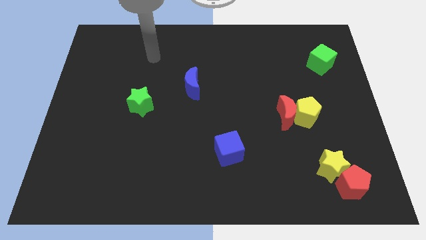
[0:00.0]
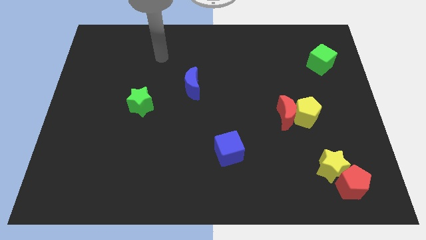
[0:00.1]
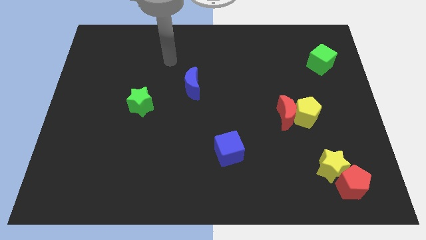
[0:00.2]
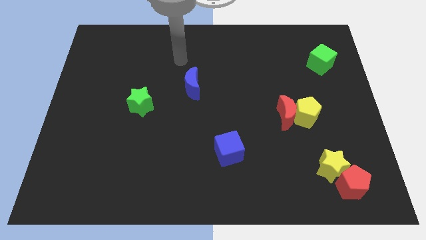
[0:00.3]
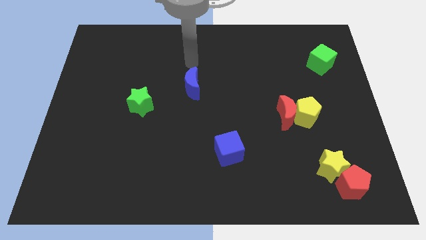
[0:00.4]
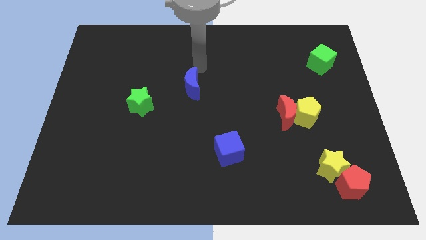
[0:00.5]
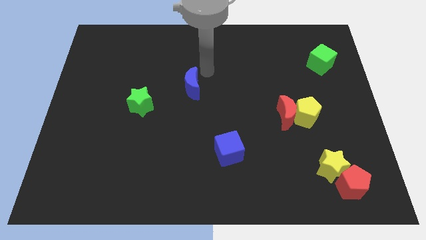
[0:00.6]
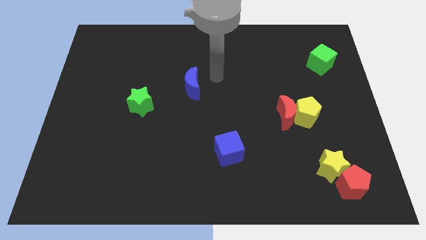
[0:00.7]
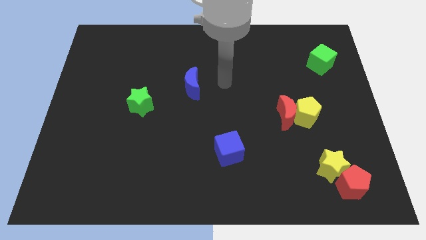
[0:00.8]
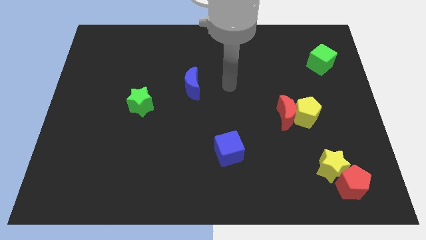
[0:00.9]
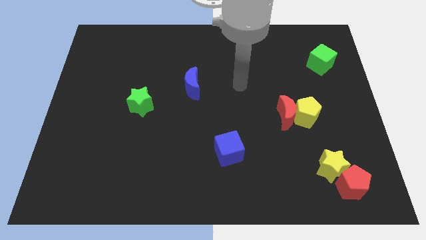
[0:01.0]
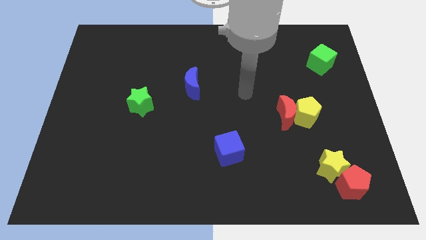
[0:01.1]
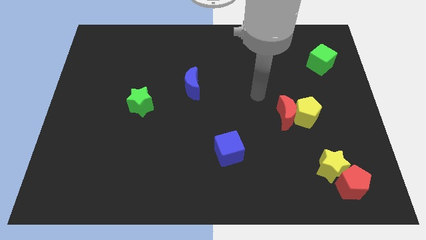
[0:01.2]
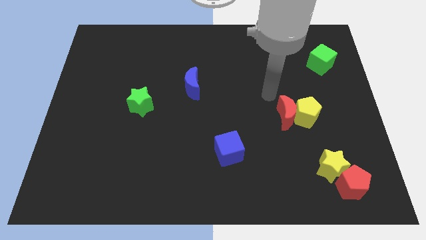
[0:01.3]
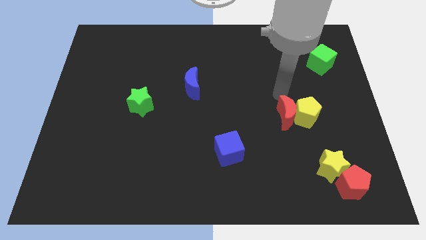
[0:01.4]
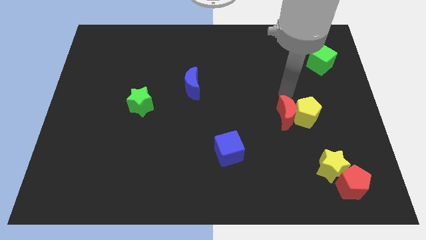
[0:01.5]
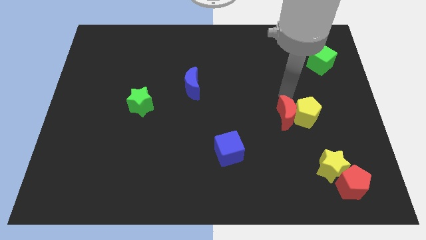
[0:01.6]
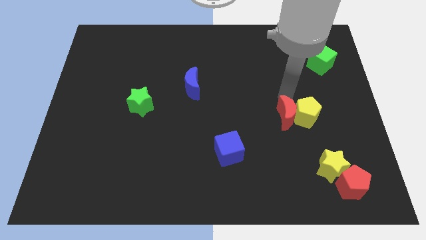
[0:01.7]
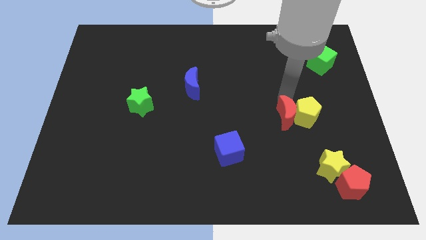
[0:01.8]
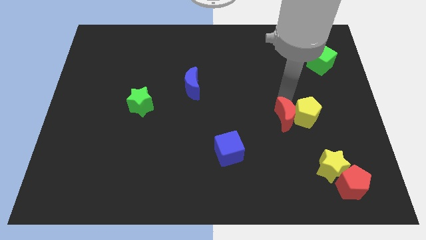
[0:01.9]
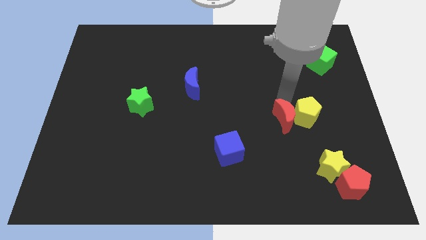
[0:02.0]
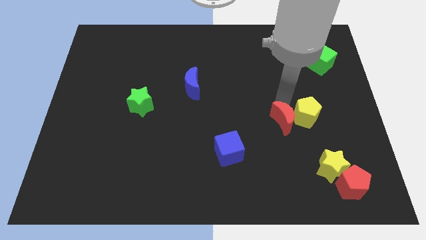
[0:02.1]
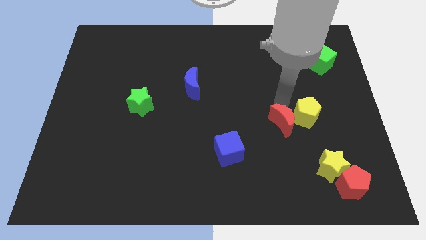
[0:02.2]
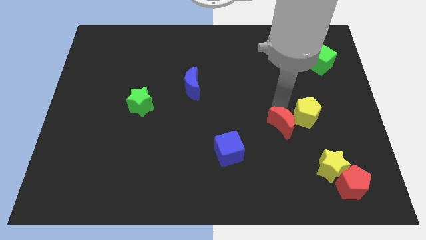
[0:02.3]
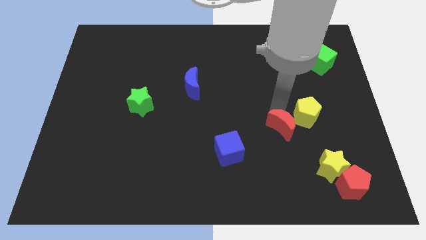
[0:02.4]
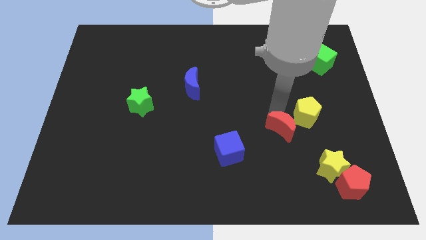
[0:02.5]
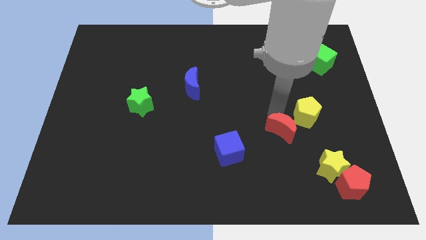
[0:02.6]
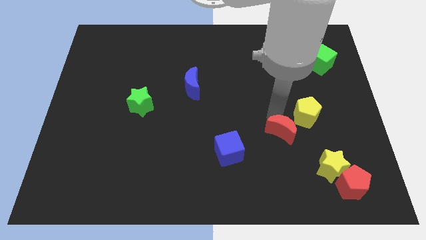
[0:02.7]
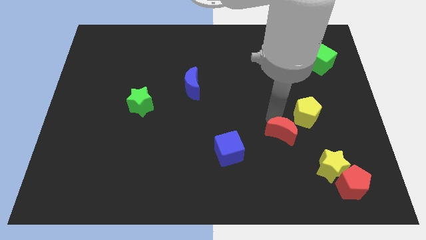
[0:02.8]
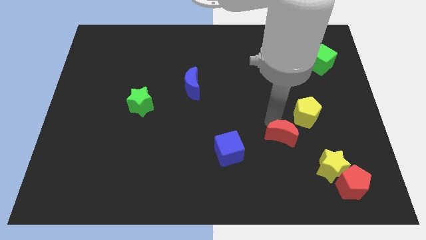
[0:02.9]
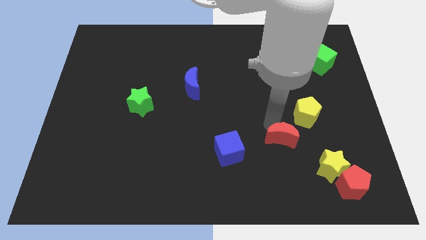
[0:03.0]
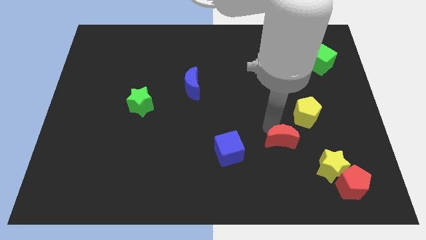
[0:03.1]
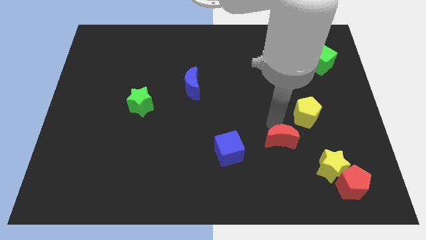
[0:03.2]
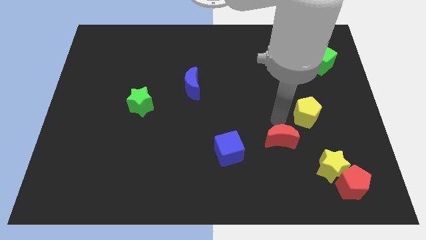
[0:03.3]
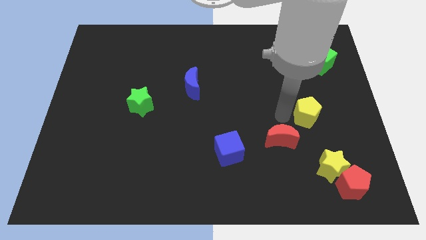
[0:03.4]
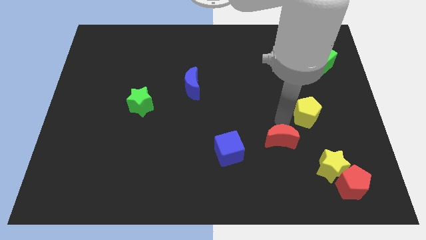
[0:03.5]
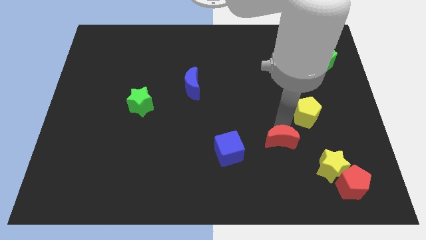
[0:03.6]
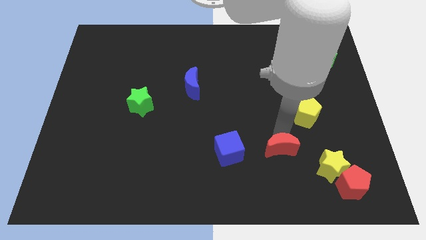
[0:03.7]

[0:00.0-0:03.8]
push the red moon downwards and left somewhat

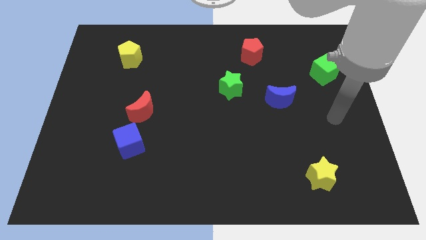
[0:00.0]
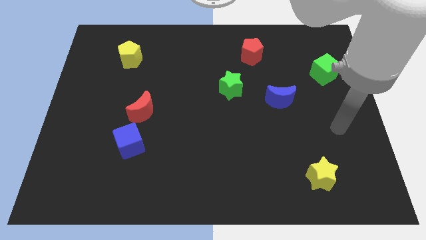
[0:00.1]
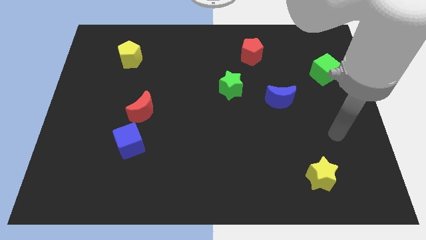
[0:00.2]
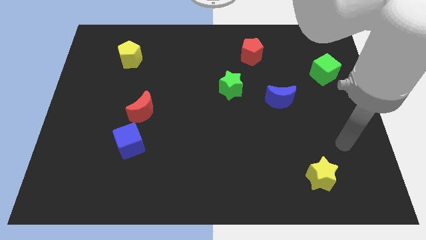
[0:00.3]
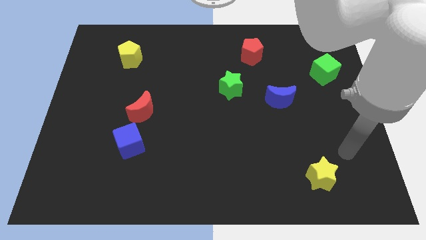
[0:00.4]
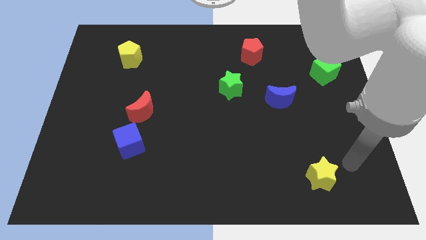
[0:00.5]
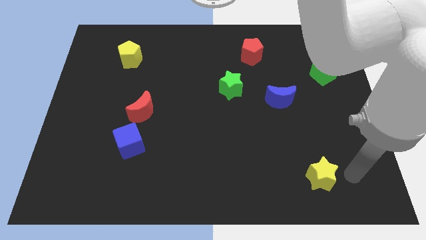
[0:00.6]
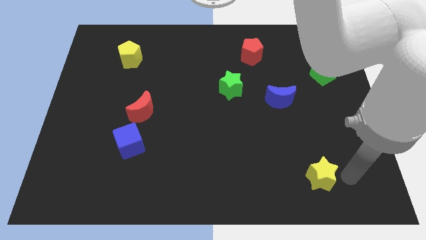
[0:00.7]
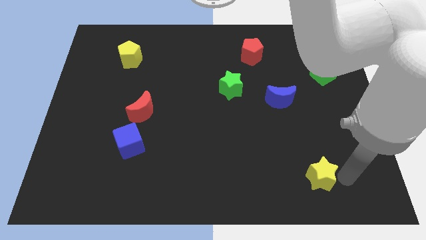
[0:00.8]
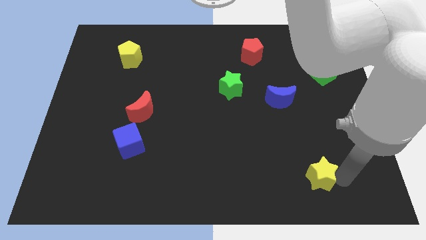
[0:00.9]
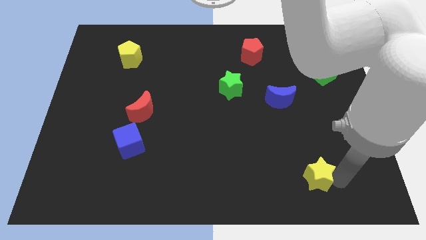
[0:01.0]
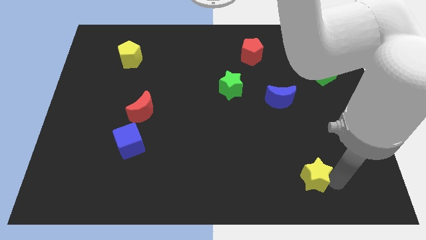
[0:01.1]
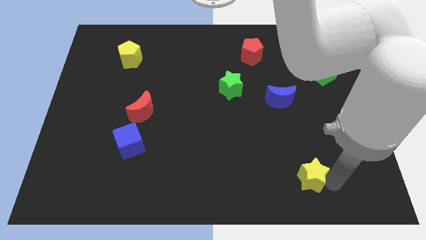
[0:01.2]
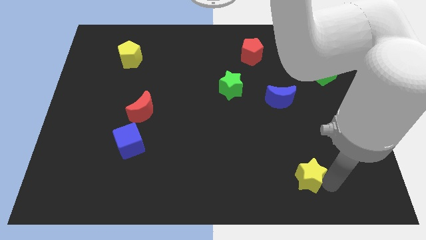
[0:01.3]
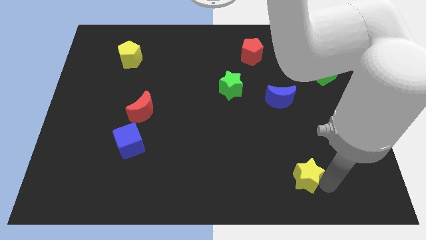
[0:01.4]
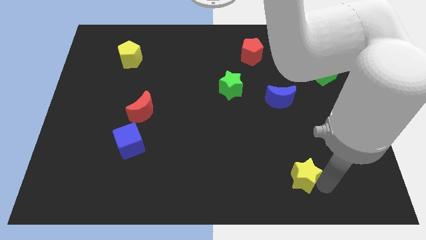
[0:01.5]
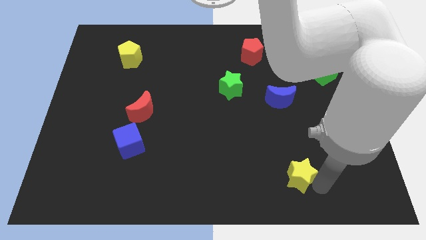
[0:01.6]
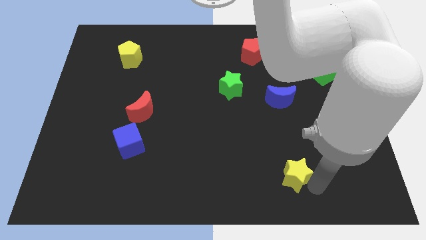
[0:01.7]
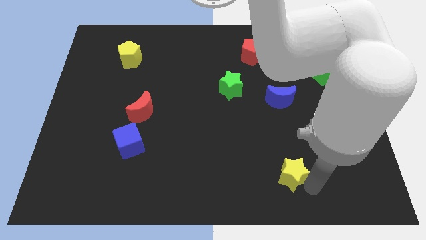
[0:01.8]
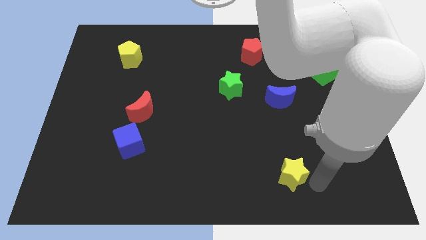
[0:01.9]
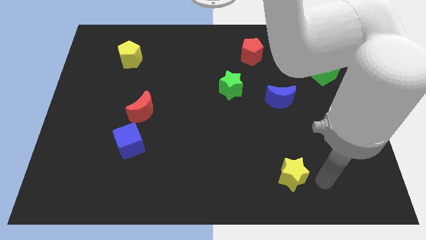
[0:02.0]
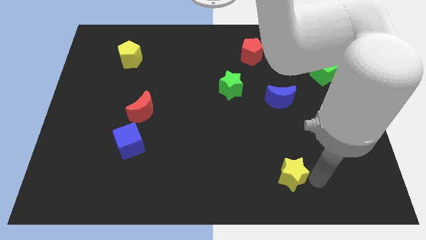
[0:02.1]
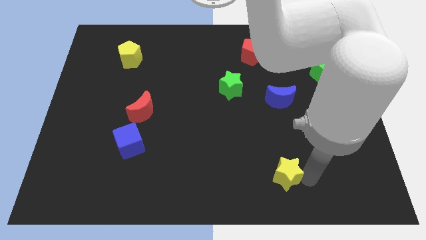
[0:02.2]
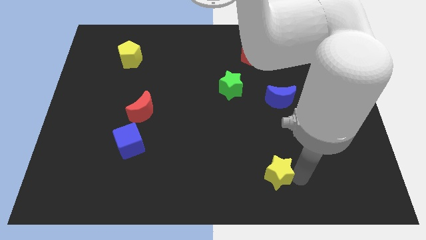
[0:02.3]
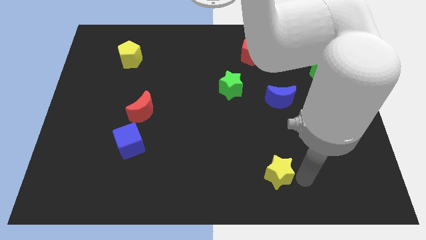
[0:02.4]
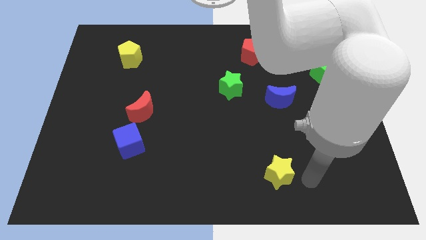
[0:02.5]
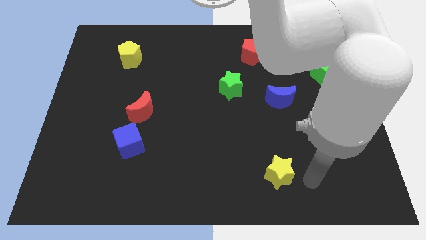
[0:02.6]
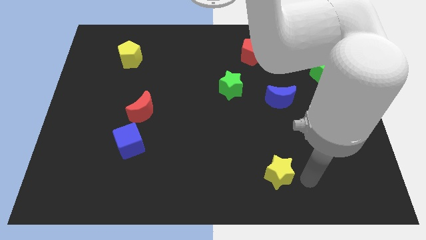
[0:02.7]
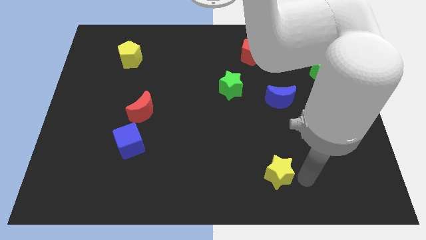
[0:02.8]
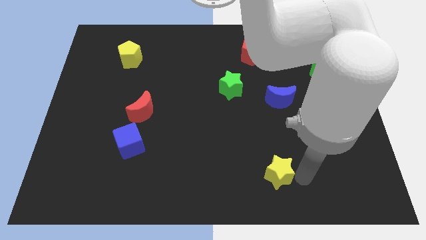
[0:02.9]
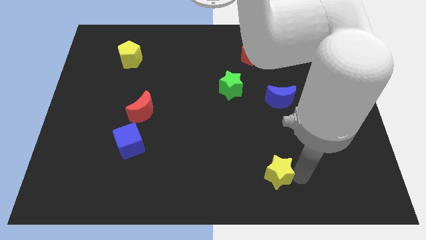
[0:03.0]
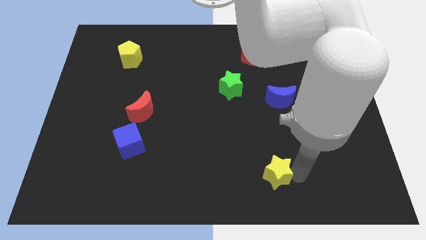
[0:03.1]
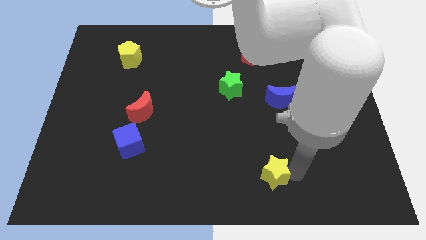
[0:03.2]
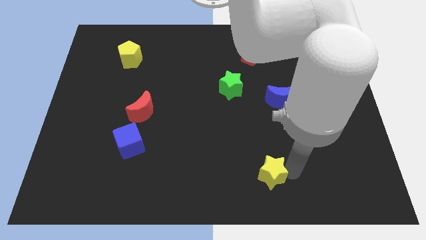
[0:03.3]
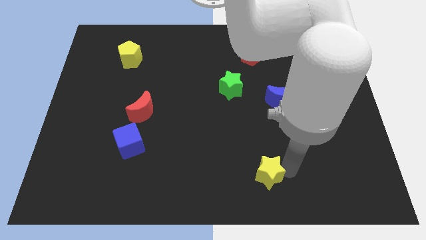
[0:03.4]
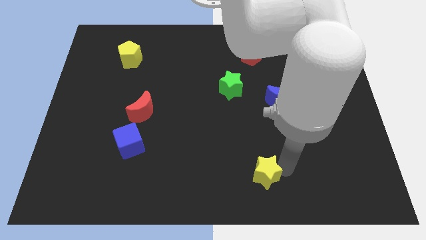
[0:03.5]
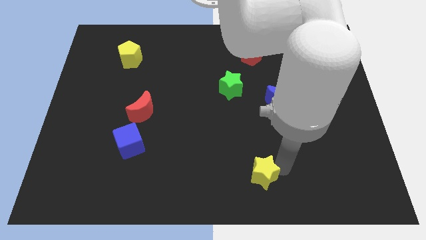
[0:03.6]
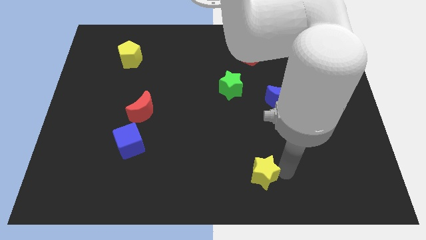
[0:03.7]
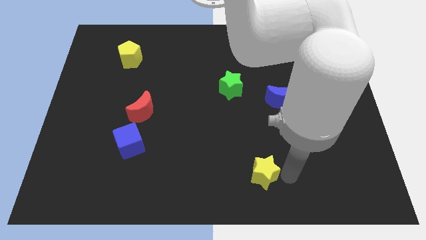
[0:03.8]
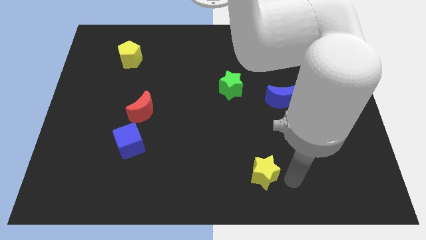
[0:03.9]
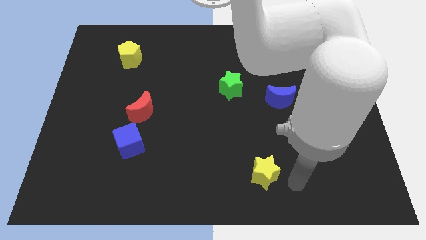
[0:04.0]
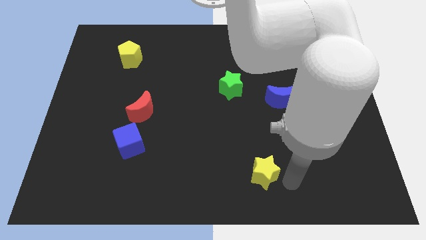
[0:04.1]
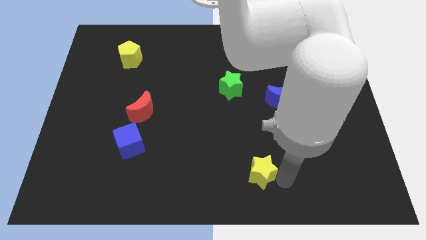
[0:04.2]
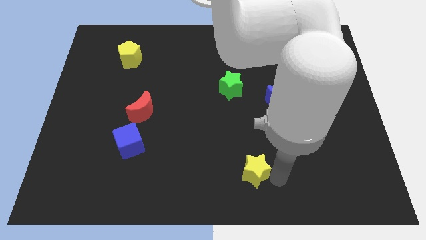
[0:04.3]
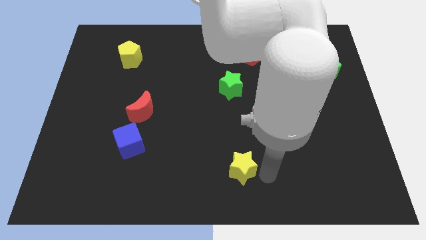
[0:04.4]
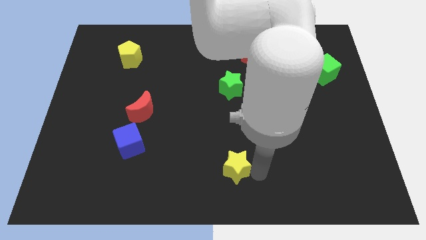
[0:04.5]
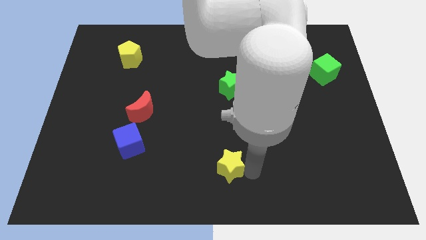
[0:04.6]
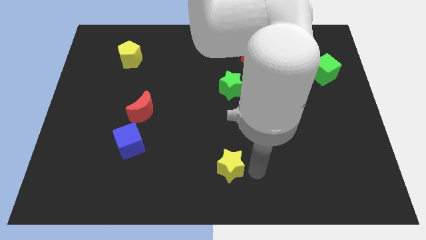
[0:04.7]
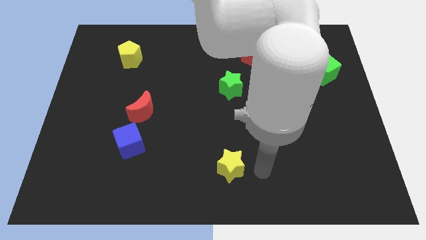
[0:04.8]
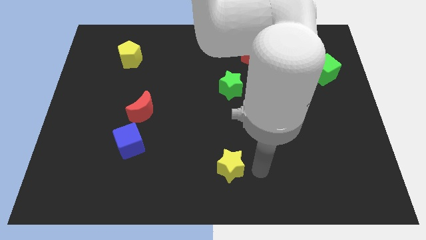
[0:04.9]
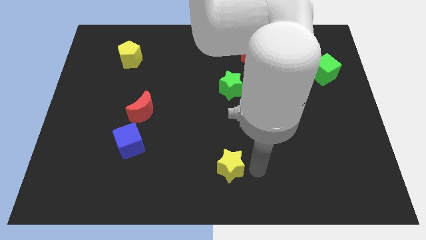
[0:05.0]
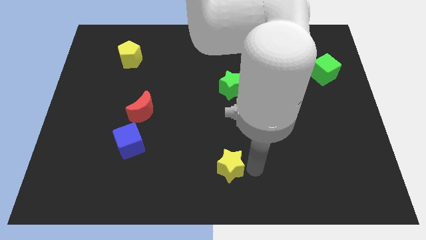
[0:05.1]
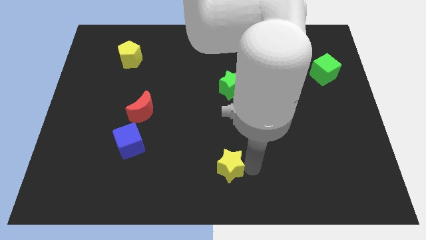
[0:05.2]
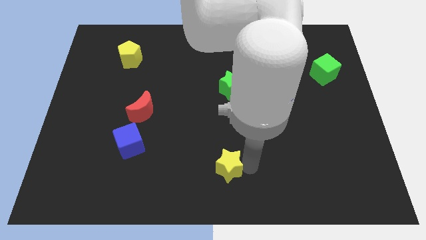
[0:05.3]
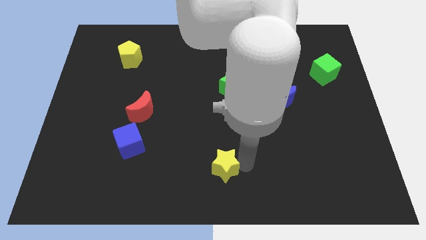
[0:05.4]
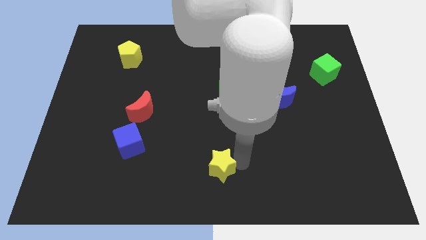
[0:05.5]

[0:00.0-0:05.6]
move the yellow star to the left
